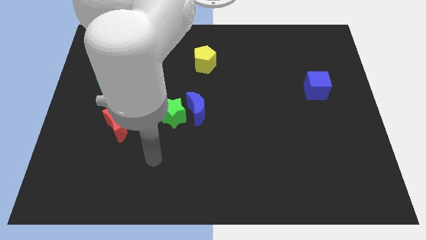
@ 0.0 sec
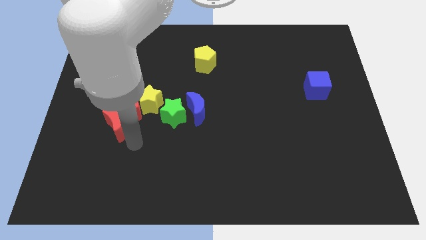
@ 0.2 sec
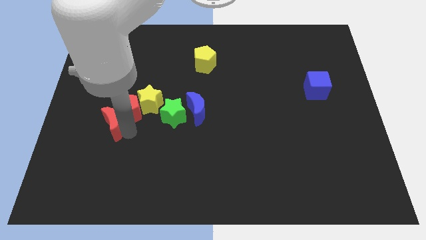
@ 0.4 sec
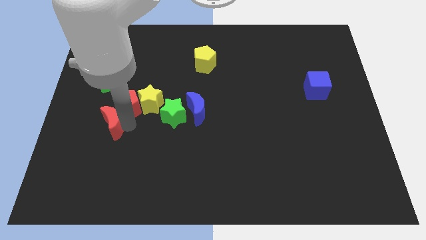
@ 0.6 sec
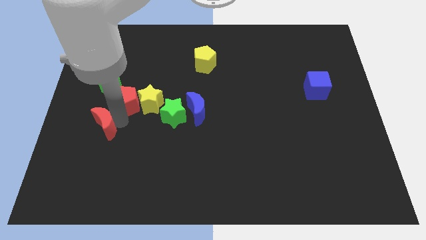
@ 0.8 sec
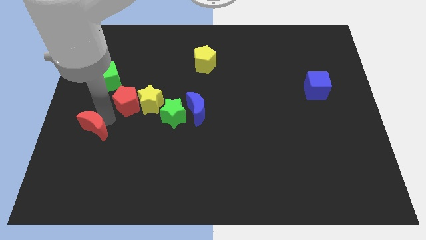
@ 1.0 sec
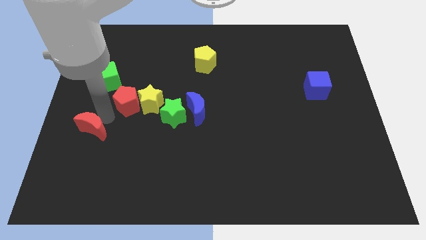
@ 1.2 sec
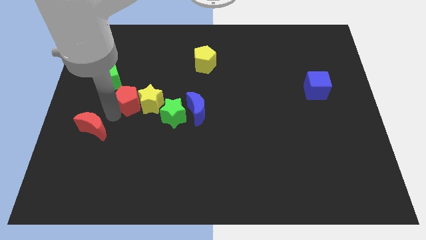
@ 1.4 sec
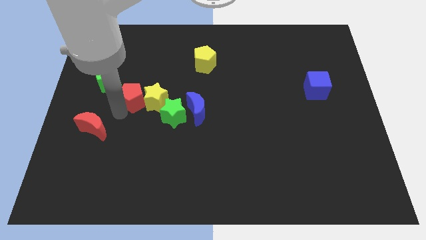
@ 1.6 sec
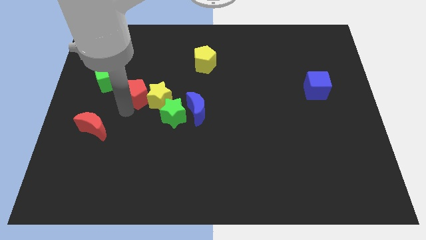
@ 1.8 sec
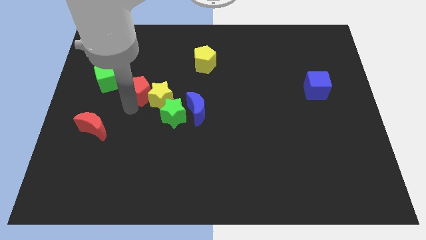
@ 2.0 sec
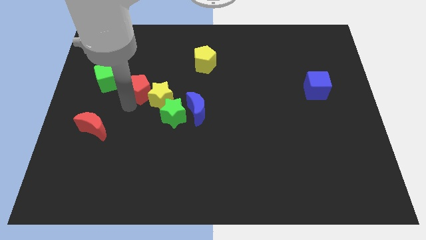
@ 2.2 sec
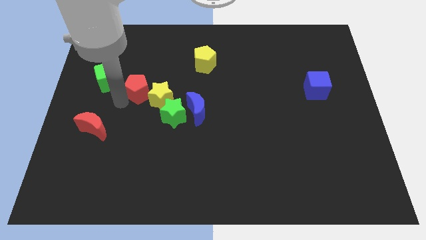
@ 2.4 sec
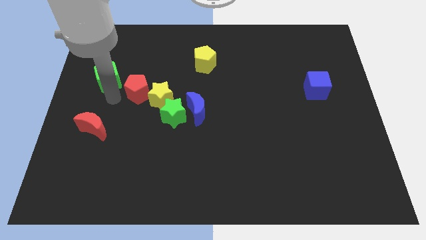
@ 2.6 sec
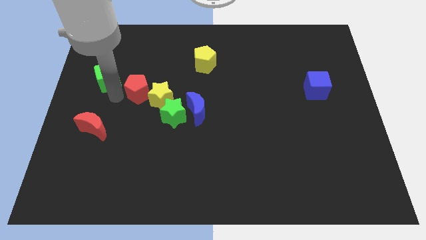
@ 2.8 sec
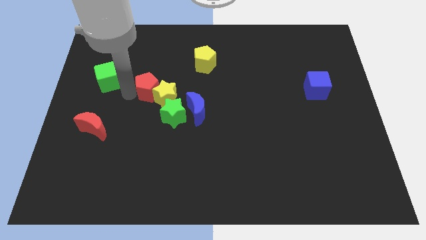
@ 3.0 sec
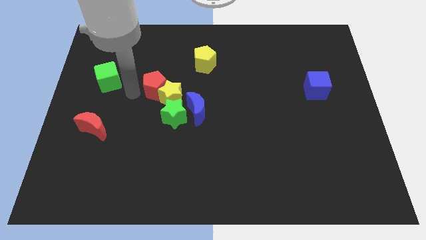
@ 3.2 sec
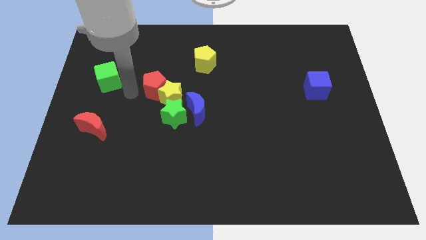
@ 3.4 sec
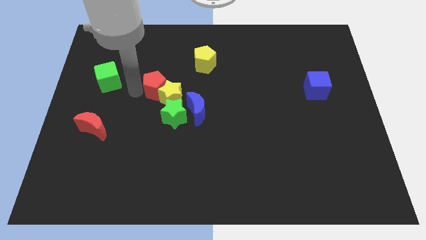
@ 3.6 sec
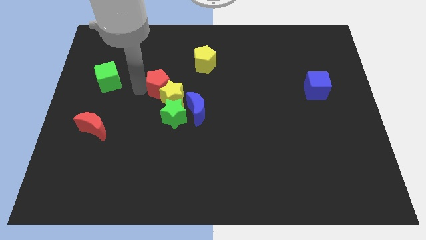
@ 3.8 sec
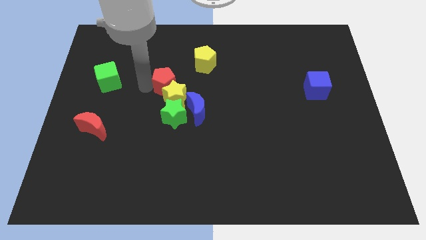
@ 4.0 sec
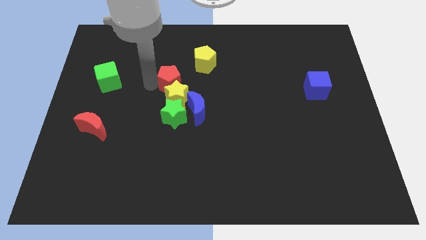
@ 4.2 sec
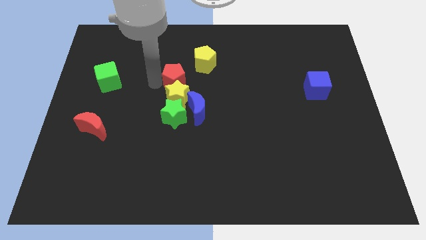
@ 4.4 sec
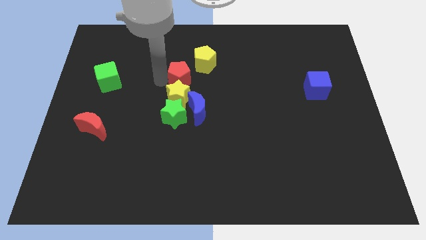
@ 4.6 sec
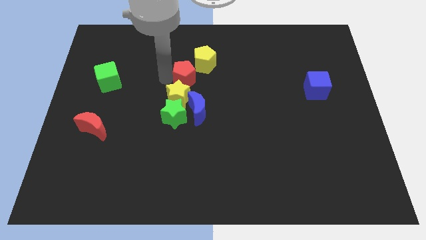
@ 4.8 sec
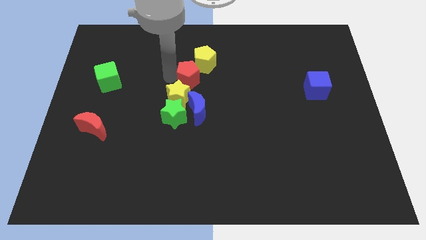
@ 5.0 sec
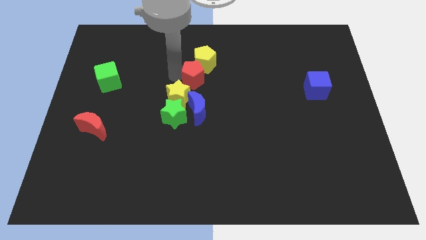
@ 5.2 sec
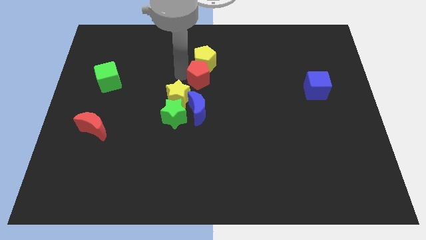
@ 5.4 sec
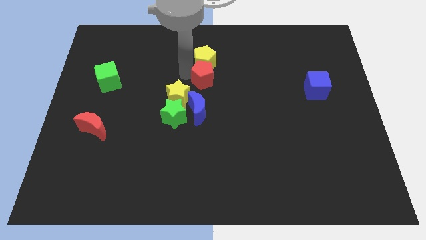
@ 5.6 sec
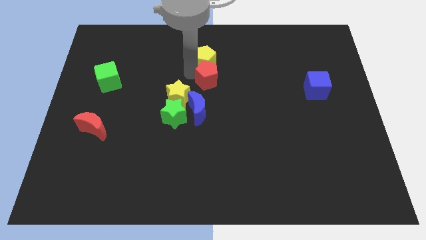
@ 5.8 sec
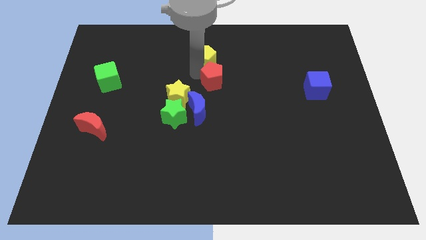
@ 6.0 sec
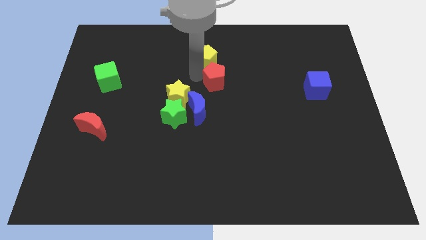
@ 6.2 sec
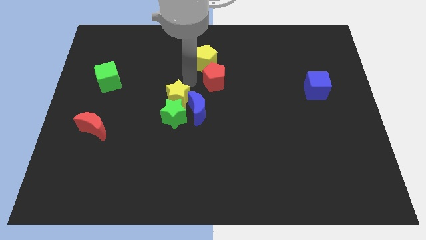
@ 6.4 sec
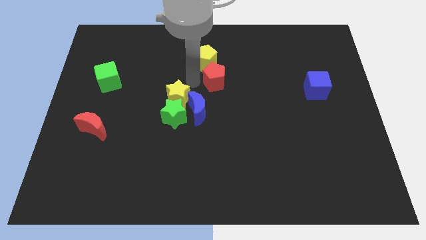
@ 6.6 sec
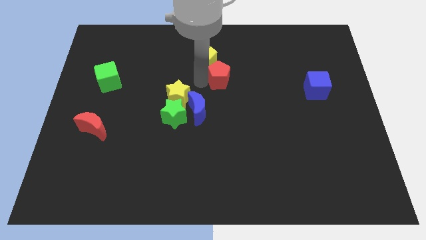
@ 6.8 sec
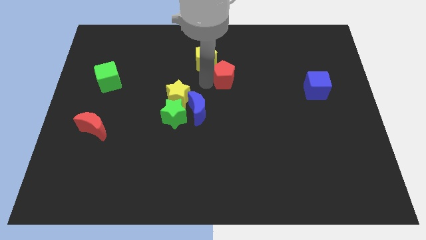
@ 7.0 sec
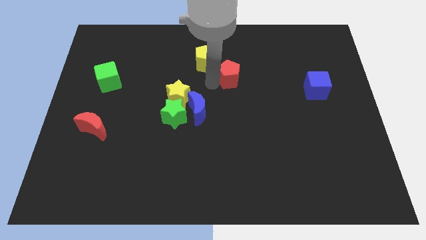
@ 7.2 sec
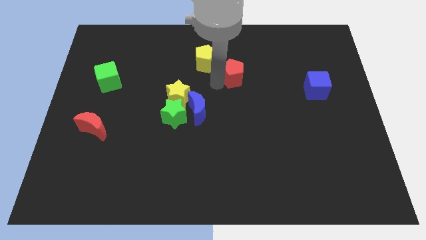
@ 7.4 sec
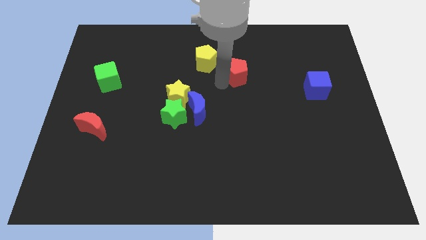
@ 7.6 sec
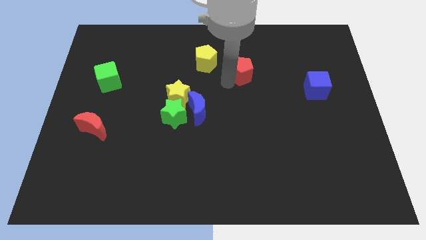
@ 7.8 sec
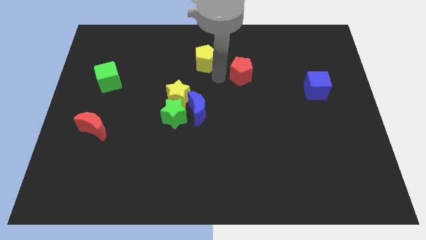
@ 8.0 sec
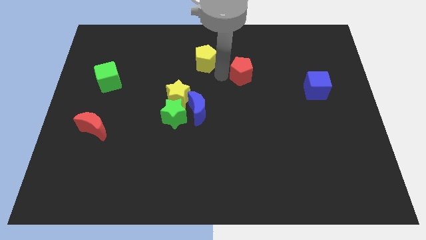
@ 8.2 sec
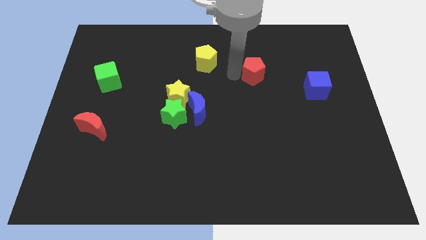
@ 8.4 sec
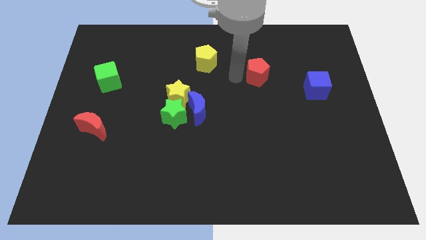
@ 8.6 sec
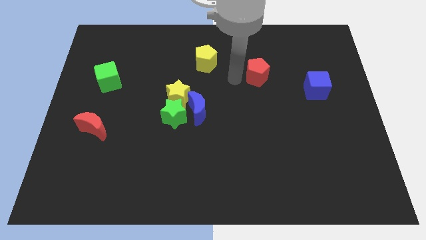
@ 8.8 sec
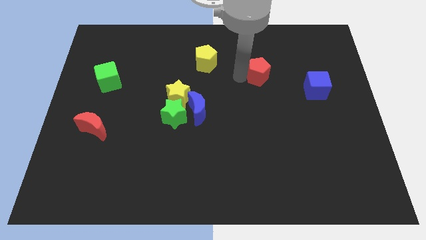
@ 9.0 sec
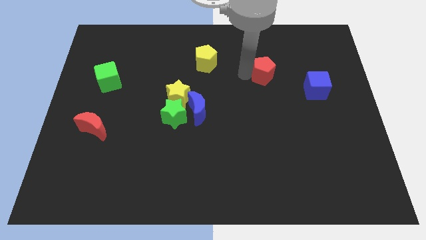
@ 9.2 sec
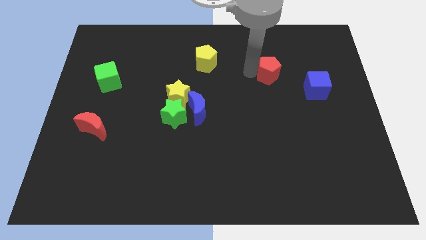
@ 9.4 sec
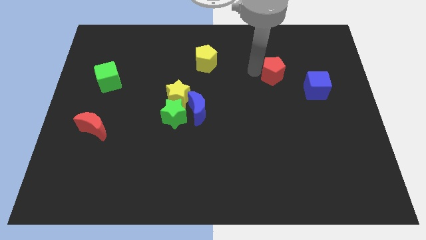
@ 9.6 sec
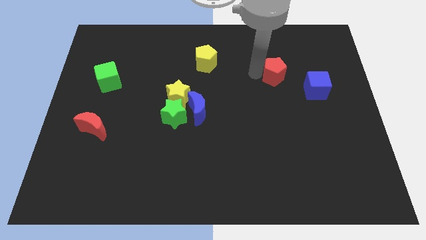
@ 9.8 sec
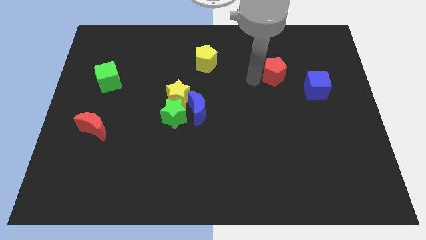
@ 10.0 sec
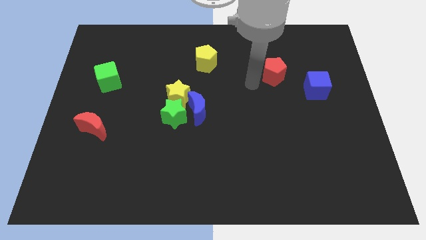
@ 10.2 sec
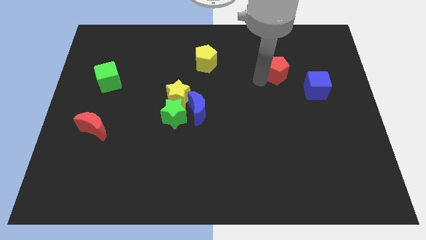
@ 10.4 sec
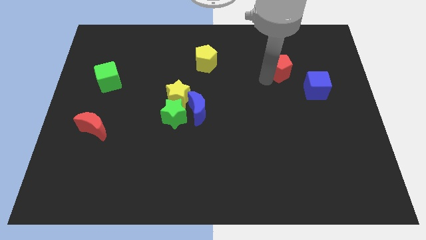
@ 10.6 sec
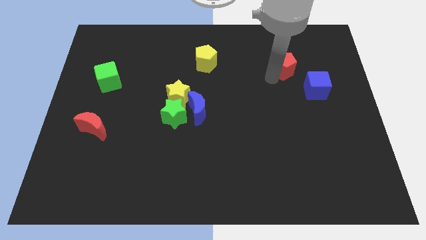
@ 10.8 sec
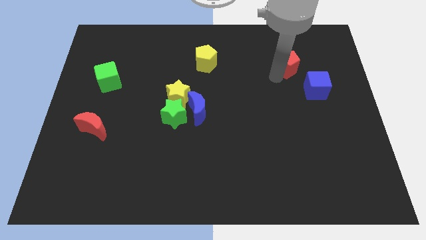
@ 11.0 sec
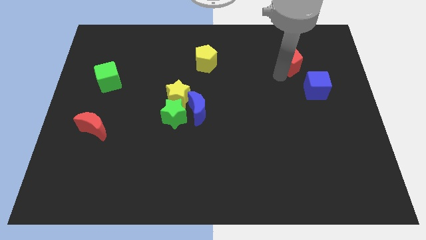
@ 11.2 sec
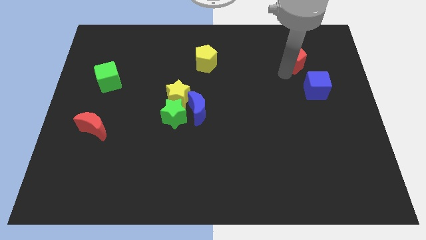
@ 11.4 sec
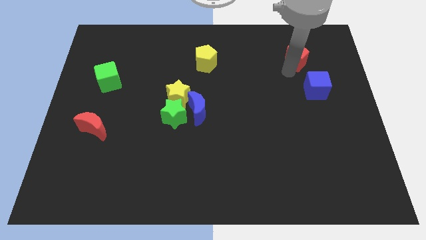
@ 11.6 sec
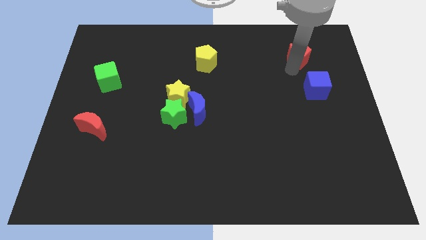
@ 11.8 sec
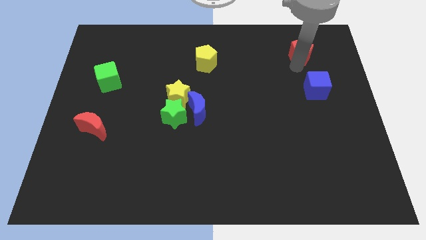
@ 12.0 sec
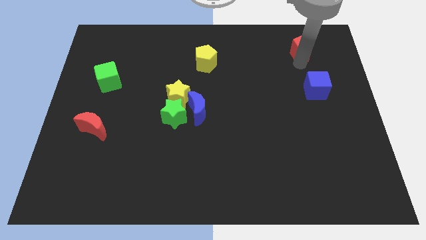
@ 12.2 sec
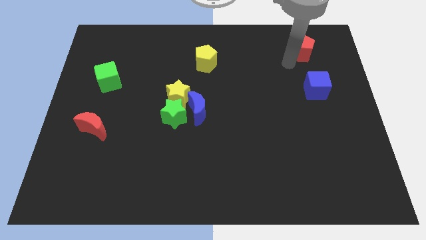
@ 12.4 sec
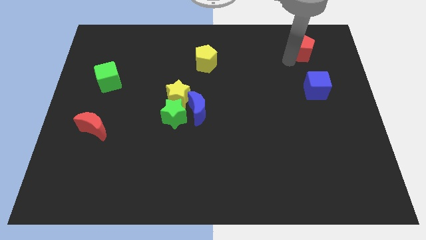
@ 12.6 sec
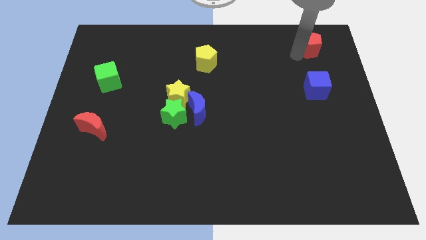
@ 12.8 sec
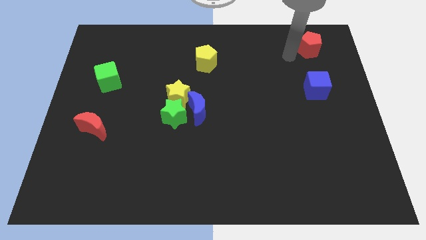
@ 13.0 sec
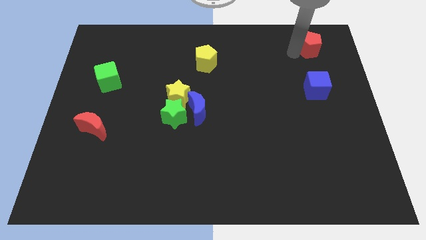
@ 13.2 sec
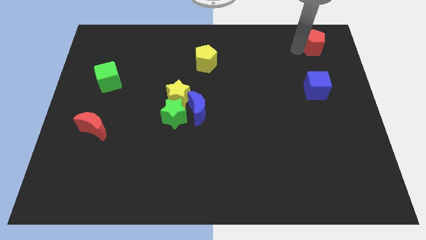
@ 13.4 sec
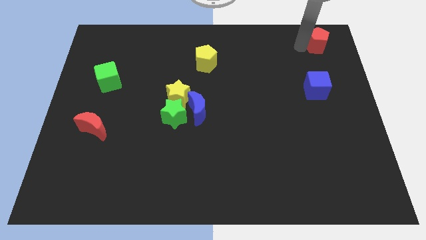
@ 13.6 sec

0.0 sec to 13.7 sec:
move the red pentagon to the top right of the board

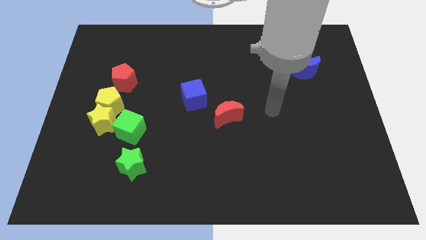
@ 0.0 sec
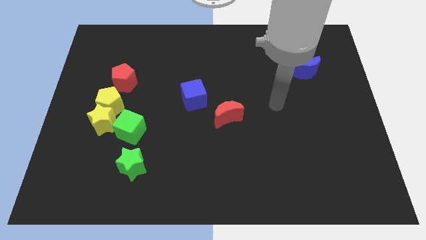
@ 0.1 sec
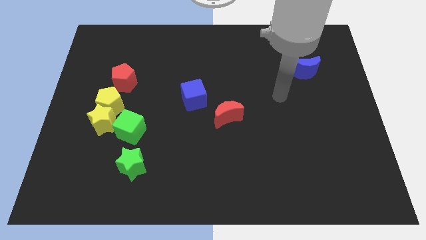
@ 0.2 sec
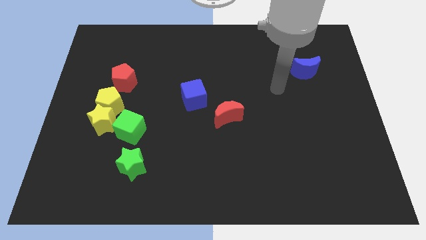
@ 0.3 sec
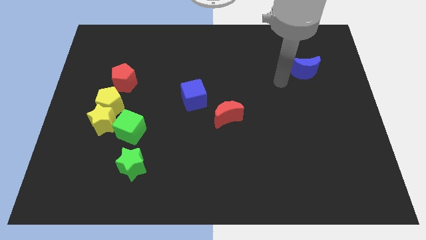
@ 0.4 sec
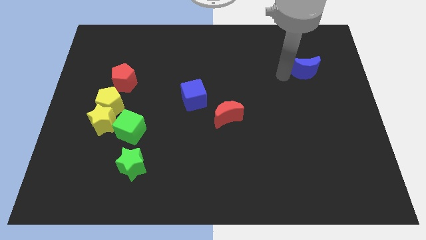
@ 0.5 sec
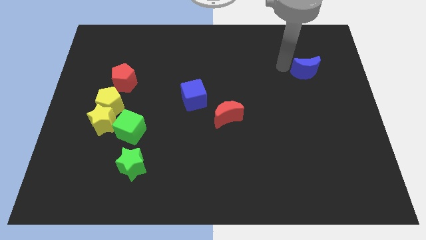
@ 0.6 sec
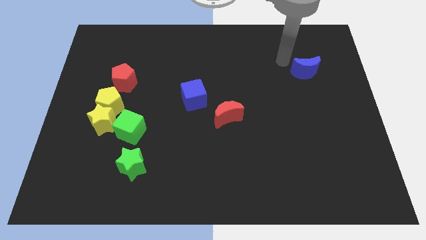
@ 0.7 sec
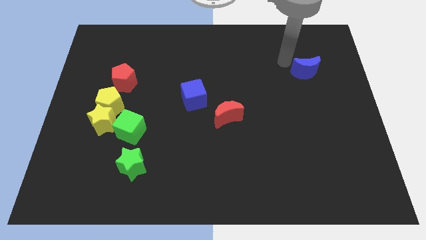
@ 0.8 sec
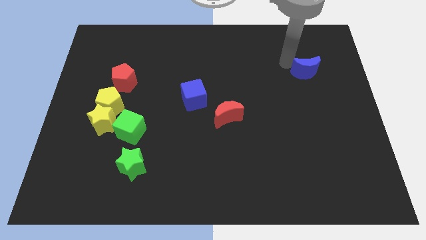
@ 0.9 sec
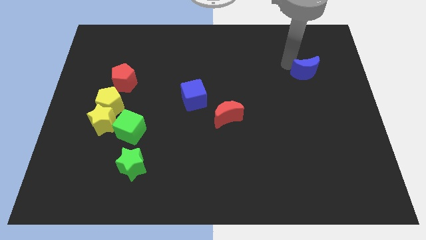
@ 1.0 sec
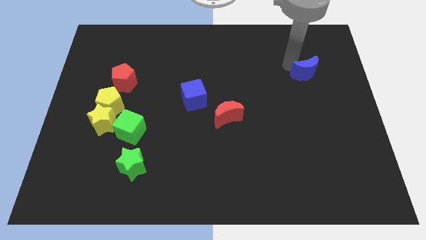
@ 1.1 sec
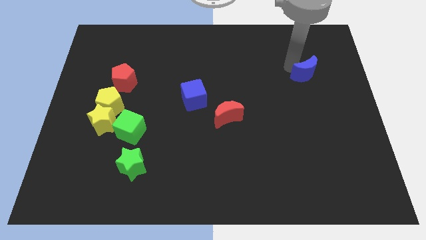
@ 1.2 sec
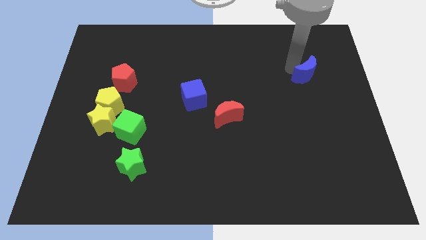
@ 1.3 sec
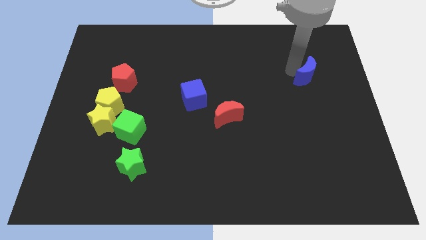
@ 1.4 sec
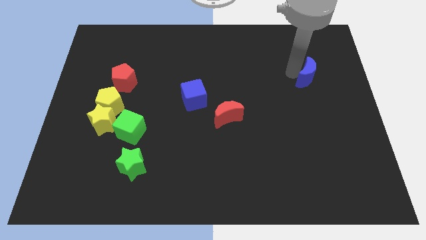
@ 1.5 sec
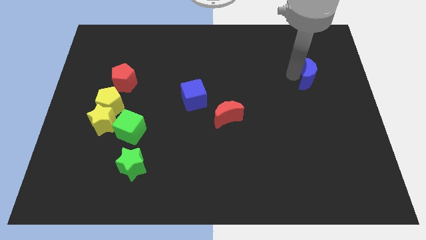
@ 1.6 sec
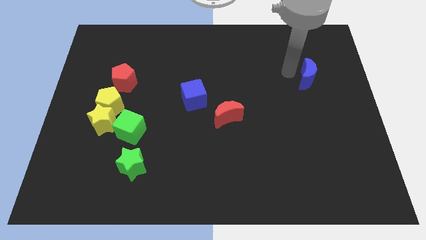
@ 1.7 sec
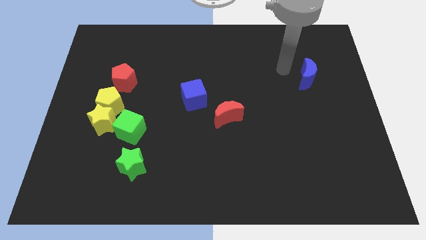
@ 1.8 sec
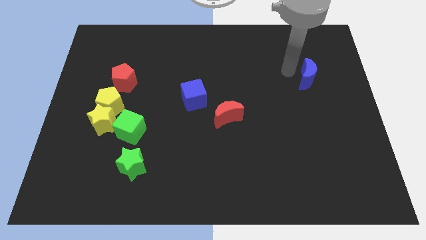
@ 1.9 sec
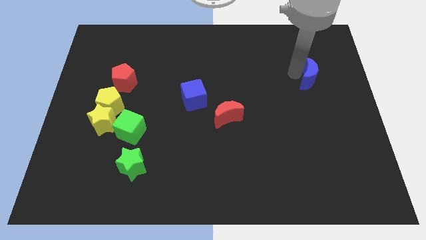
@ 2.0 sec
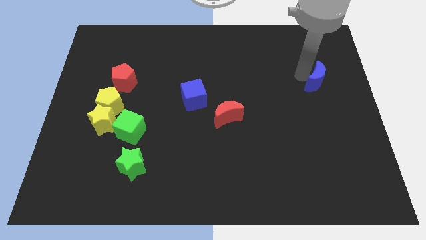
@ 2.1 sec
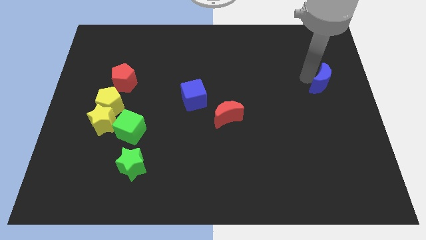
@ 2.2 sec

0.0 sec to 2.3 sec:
put the blue moon to the right side of the board
